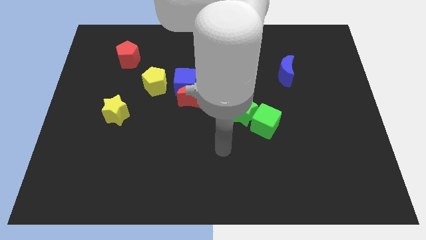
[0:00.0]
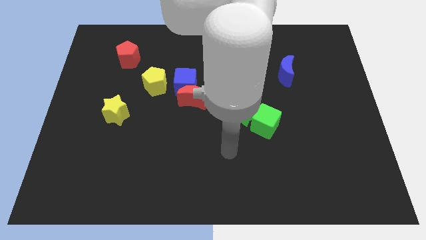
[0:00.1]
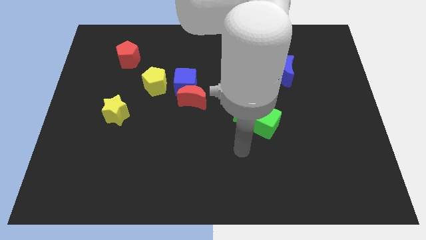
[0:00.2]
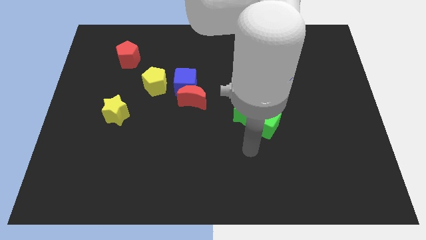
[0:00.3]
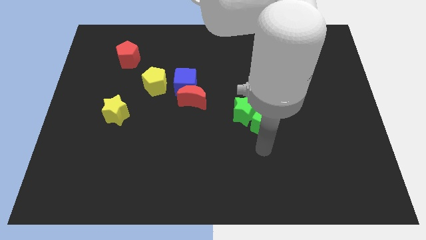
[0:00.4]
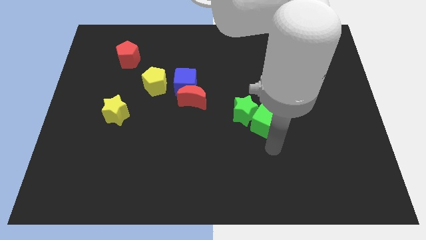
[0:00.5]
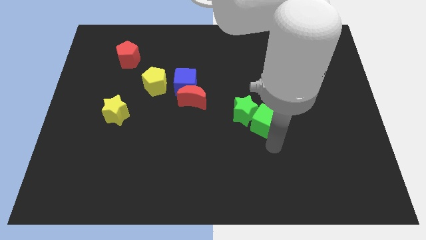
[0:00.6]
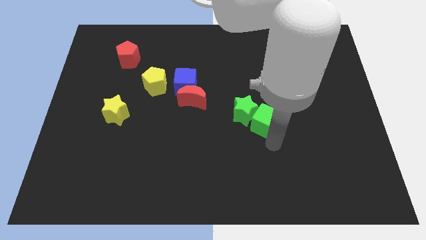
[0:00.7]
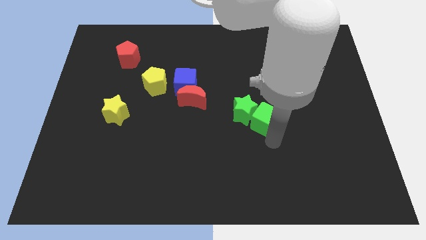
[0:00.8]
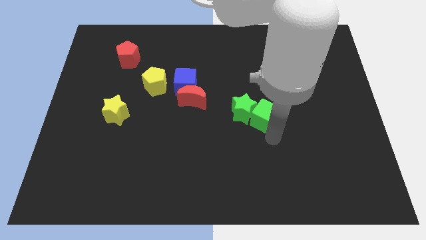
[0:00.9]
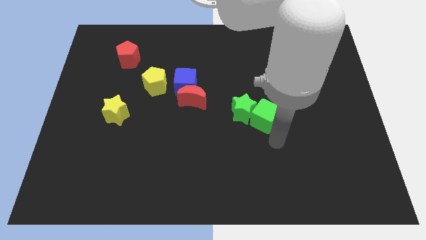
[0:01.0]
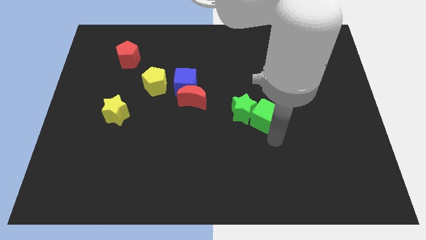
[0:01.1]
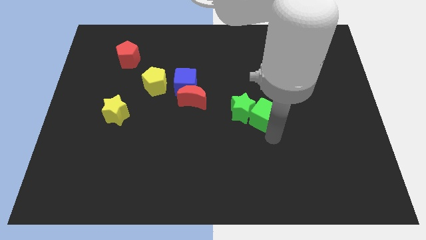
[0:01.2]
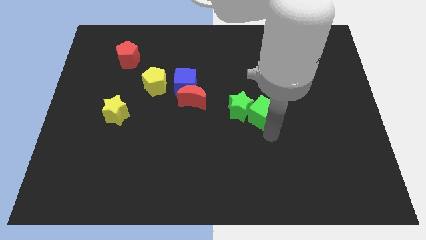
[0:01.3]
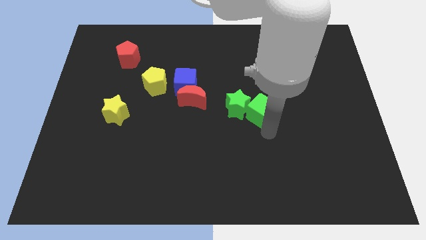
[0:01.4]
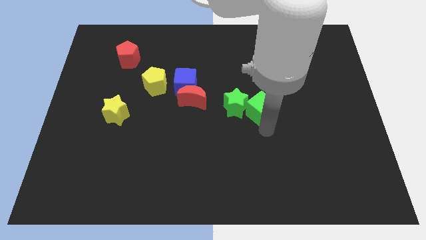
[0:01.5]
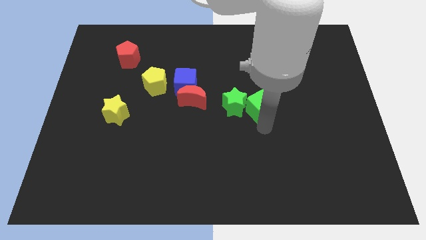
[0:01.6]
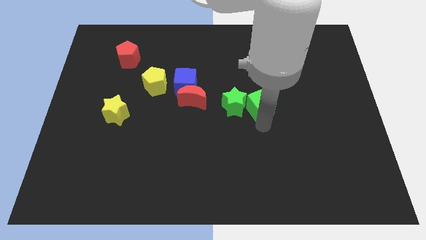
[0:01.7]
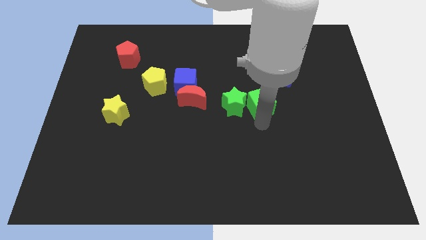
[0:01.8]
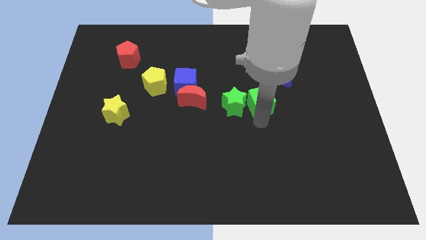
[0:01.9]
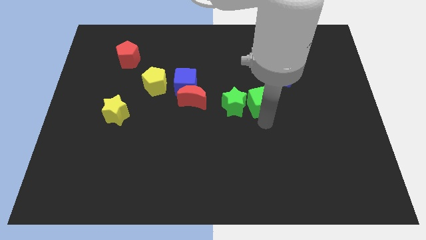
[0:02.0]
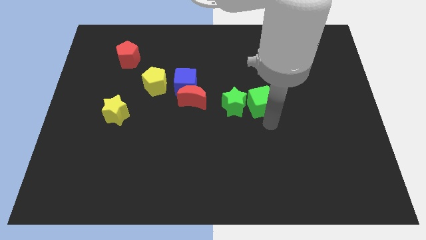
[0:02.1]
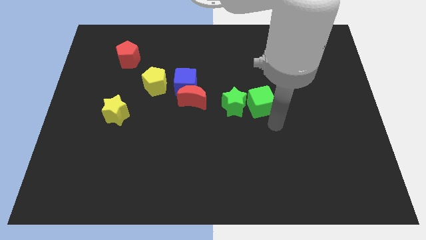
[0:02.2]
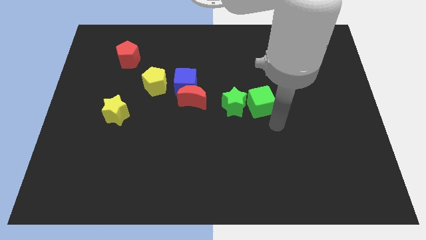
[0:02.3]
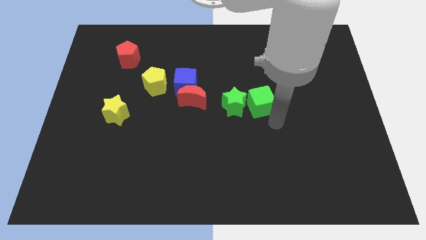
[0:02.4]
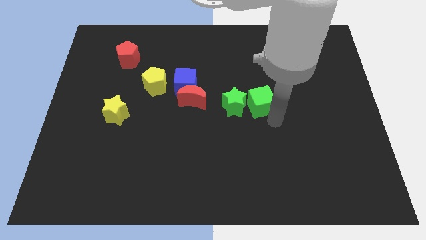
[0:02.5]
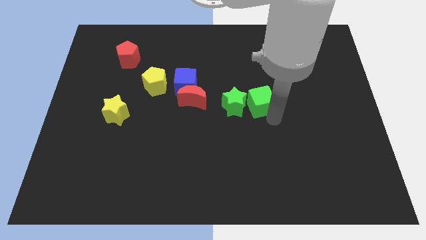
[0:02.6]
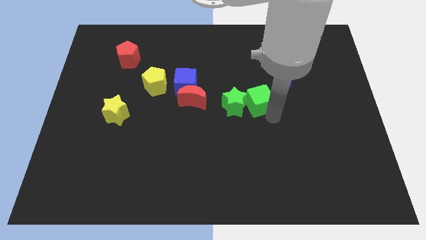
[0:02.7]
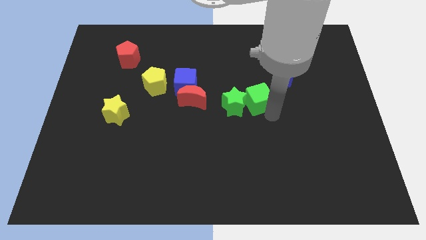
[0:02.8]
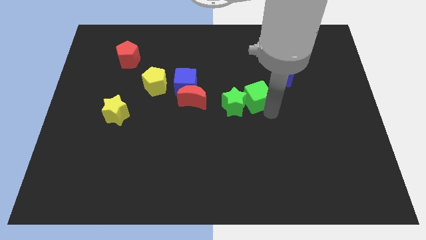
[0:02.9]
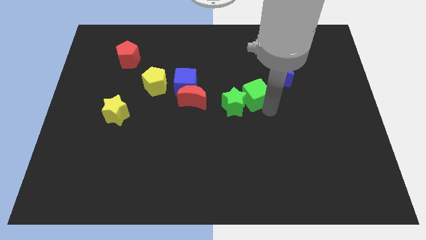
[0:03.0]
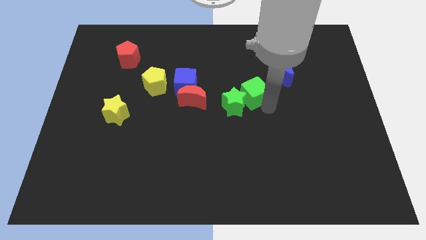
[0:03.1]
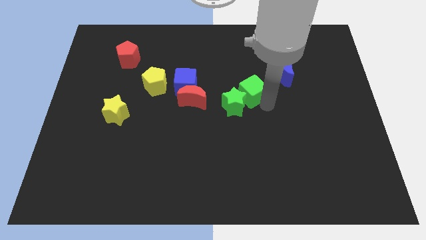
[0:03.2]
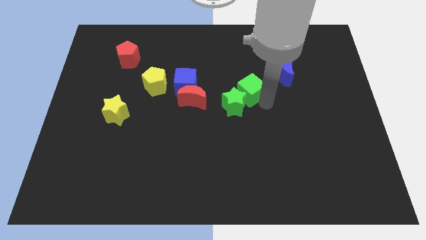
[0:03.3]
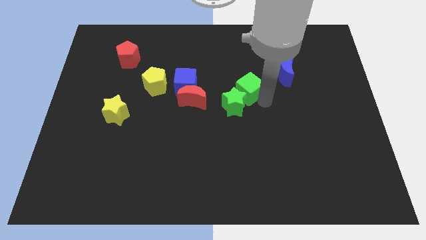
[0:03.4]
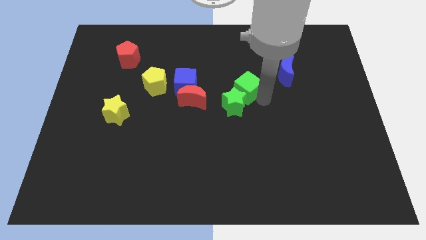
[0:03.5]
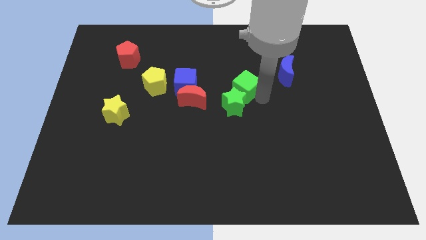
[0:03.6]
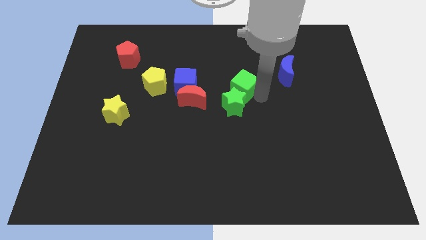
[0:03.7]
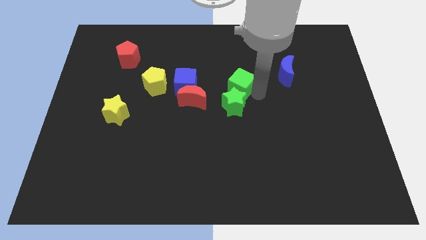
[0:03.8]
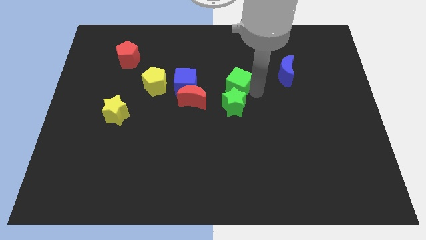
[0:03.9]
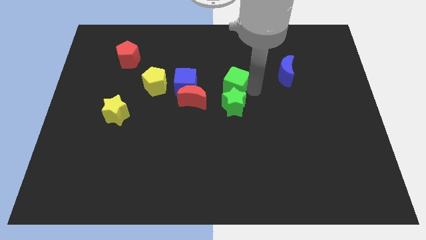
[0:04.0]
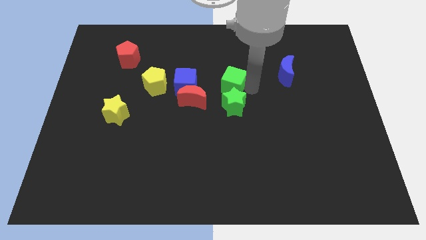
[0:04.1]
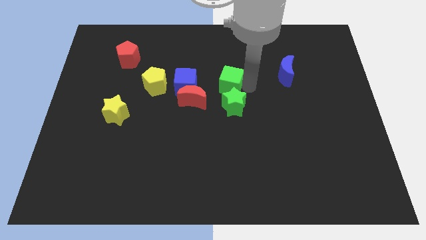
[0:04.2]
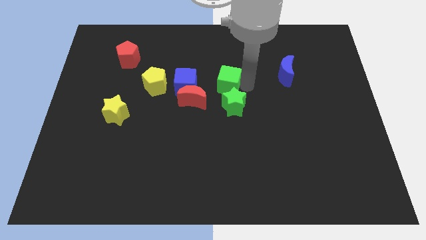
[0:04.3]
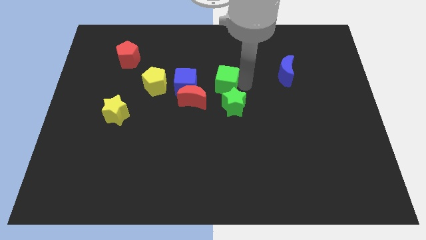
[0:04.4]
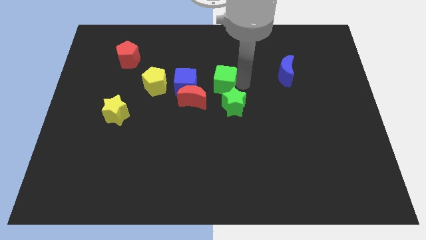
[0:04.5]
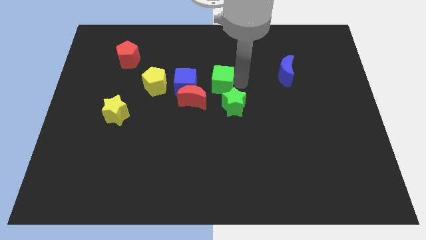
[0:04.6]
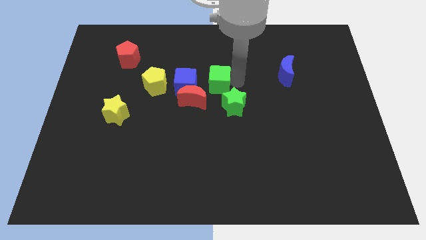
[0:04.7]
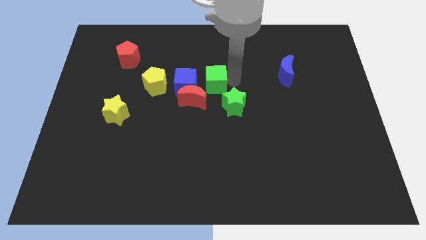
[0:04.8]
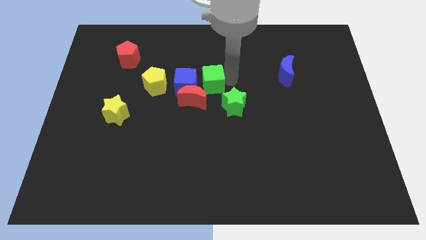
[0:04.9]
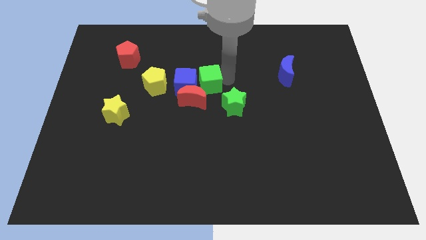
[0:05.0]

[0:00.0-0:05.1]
push the green cube towards the blue cube

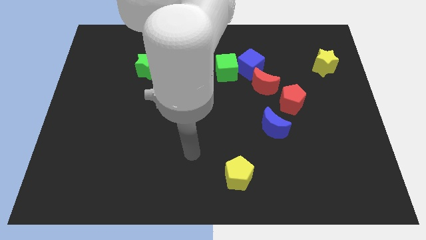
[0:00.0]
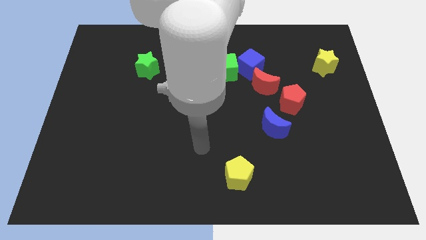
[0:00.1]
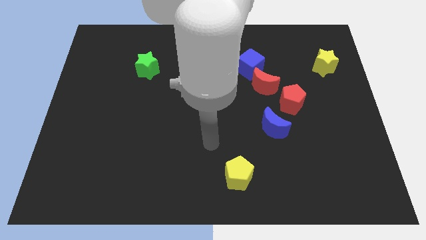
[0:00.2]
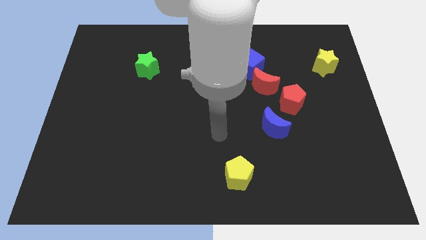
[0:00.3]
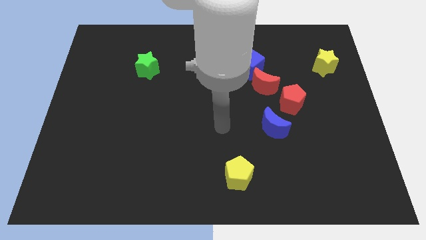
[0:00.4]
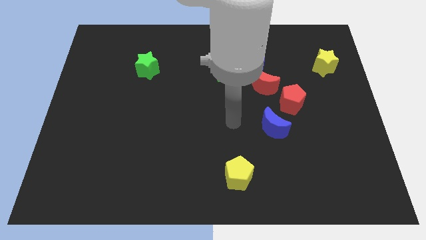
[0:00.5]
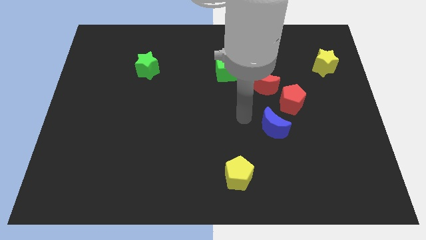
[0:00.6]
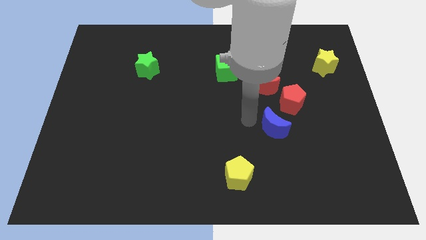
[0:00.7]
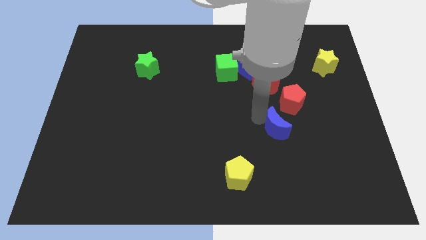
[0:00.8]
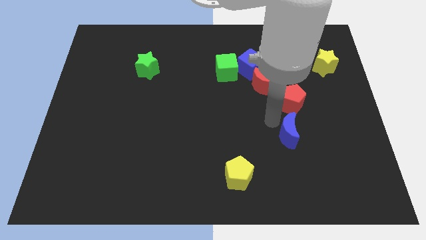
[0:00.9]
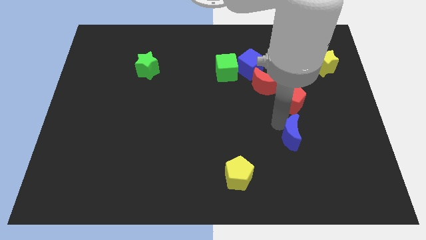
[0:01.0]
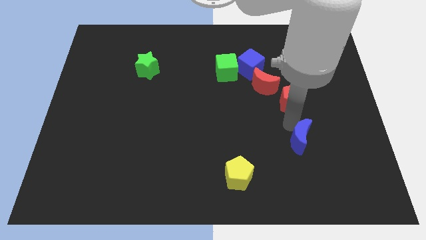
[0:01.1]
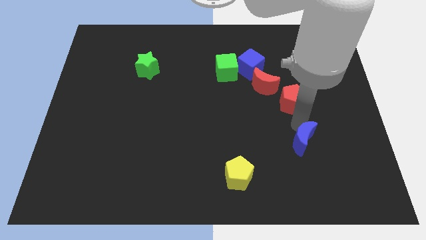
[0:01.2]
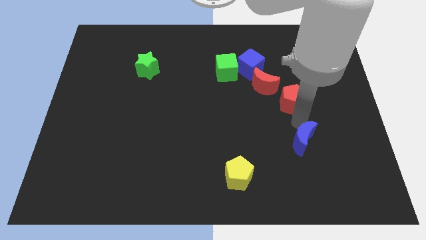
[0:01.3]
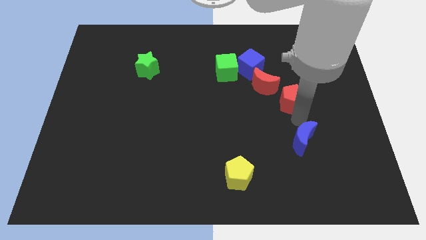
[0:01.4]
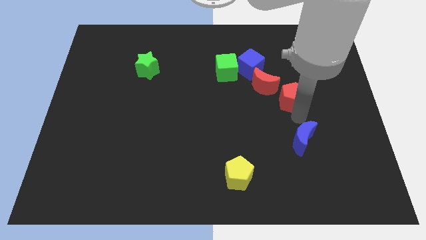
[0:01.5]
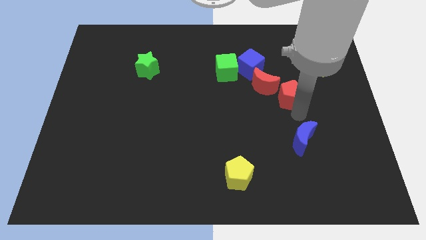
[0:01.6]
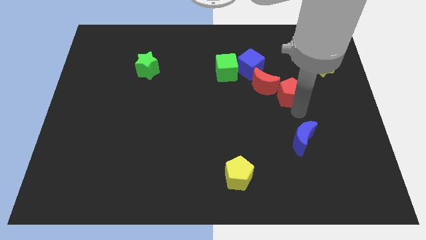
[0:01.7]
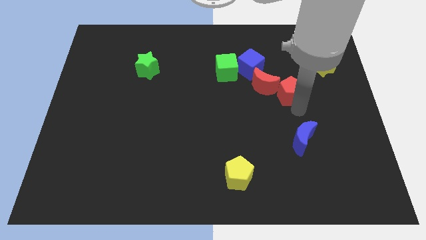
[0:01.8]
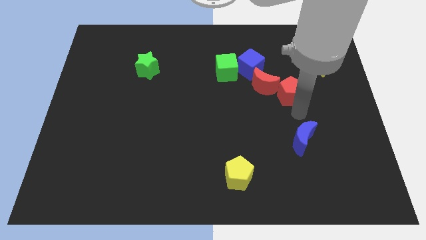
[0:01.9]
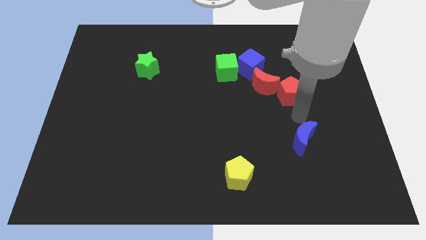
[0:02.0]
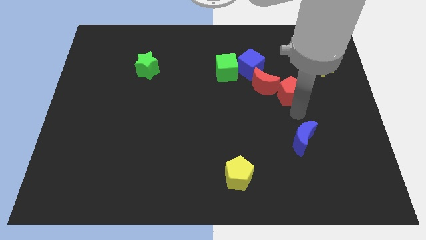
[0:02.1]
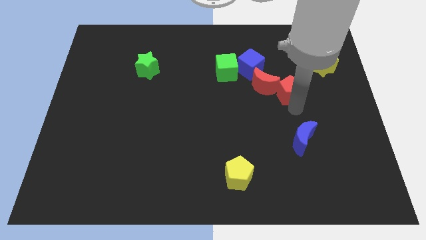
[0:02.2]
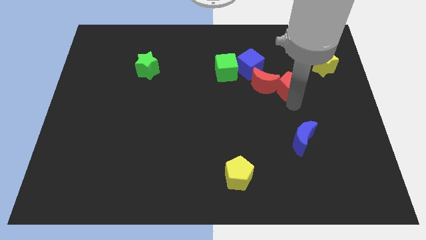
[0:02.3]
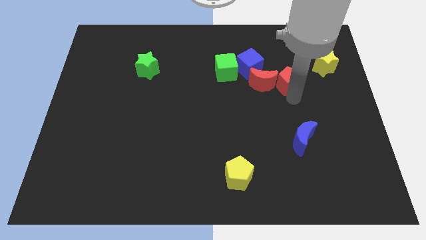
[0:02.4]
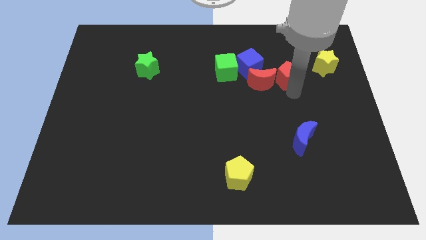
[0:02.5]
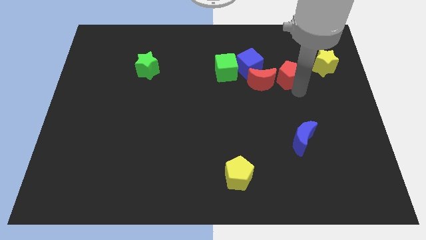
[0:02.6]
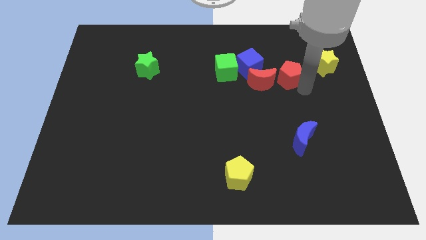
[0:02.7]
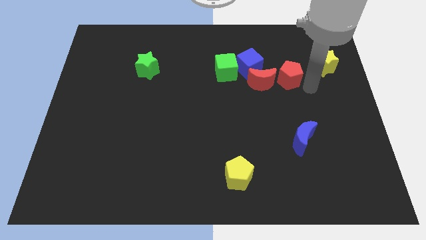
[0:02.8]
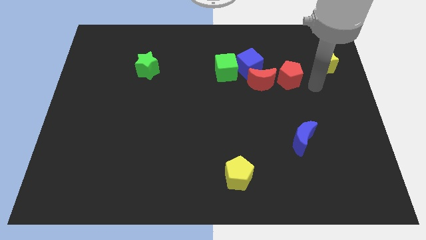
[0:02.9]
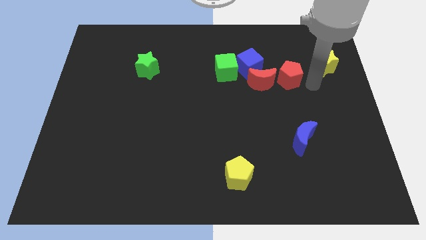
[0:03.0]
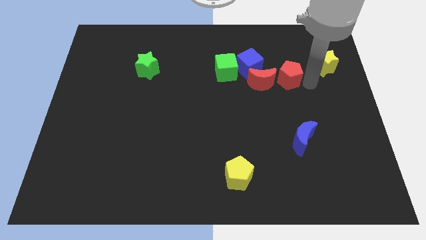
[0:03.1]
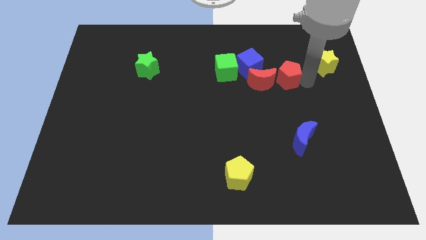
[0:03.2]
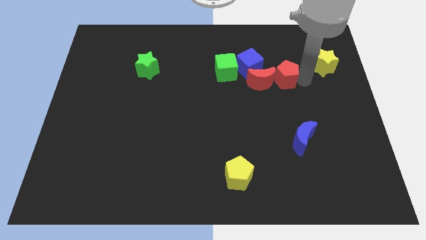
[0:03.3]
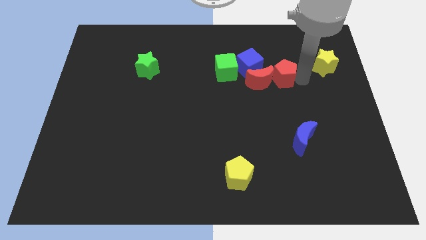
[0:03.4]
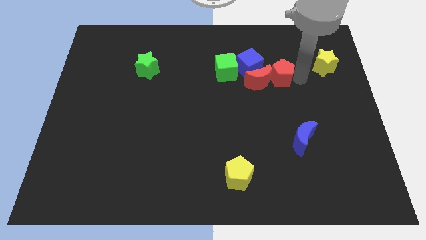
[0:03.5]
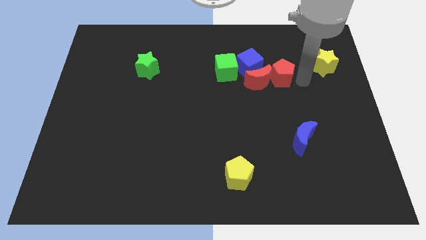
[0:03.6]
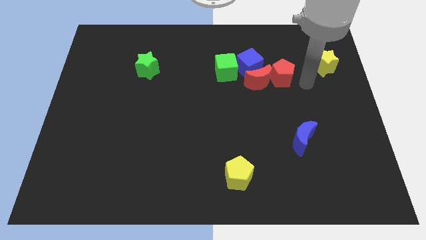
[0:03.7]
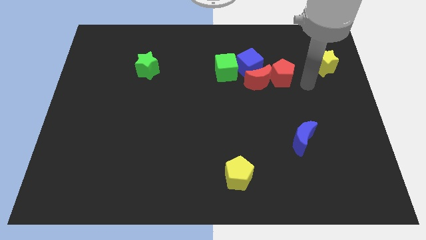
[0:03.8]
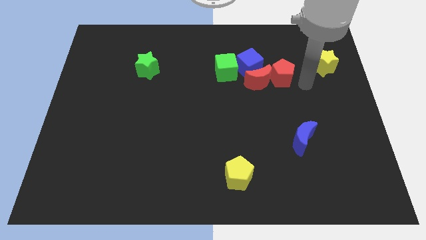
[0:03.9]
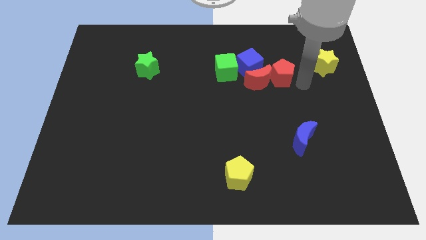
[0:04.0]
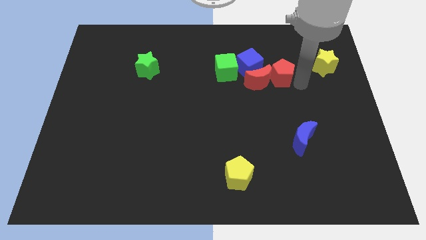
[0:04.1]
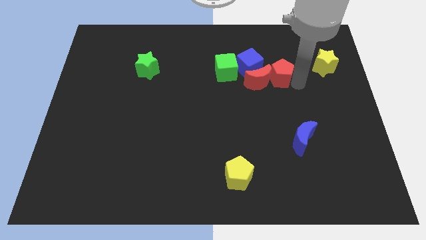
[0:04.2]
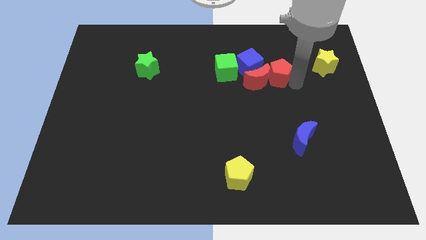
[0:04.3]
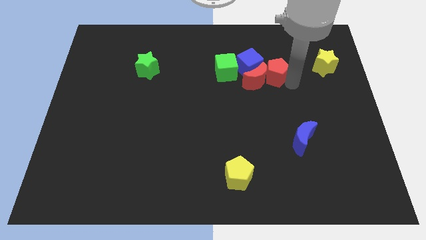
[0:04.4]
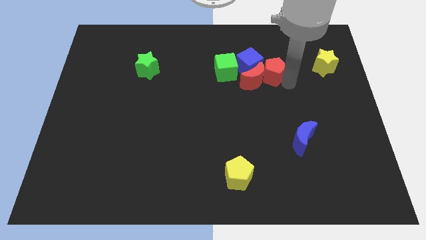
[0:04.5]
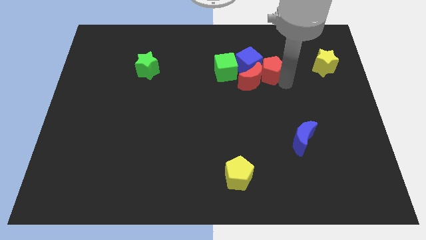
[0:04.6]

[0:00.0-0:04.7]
slide the red pentagon close to the blue cube
